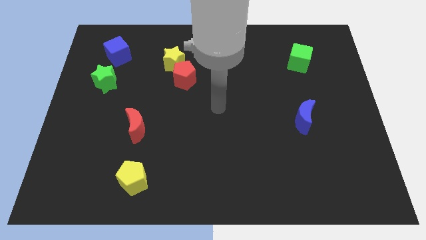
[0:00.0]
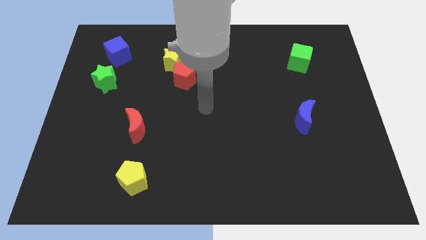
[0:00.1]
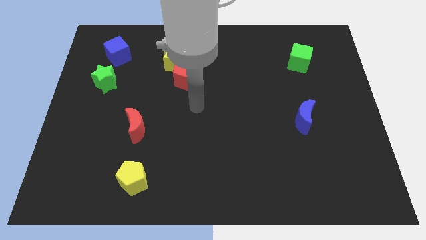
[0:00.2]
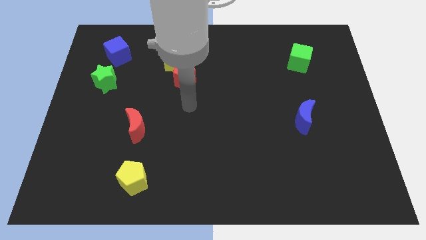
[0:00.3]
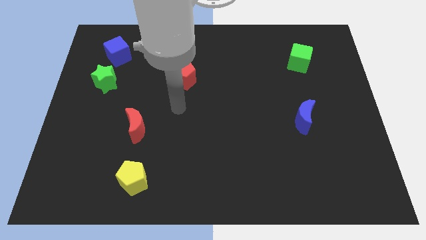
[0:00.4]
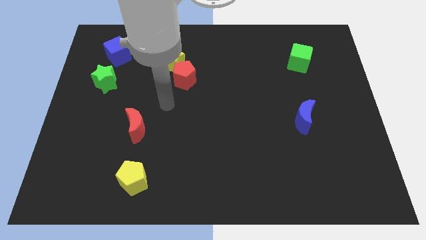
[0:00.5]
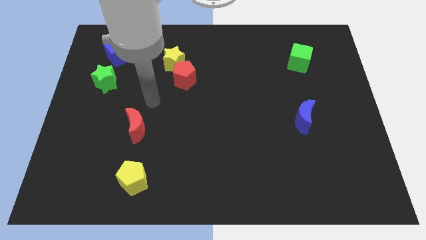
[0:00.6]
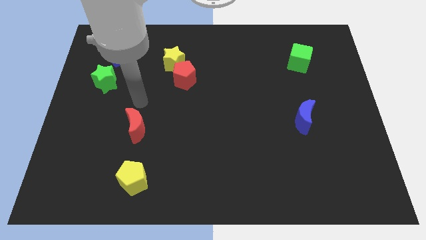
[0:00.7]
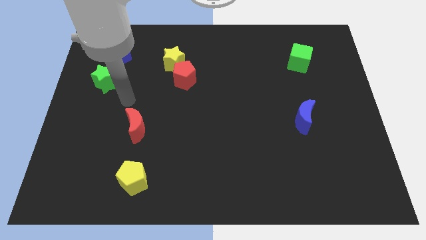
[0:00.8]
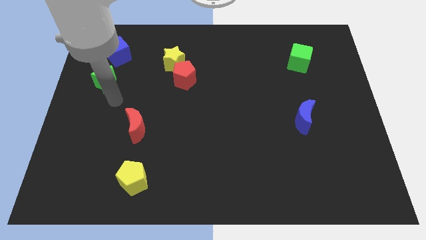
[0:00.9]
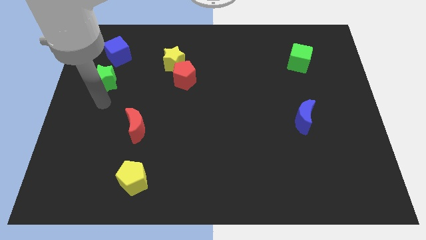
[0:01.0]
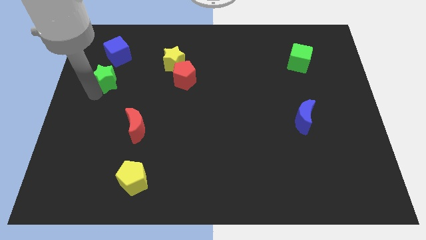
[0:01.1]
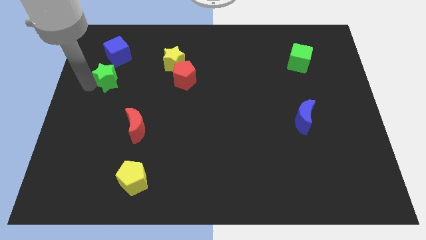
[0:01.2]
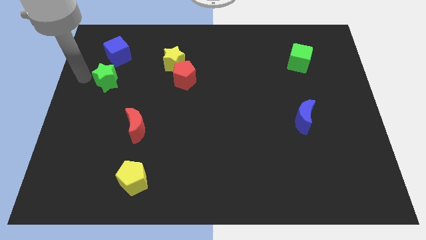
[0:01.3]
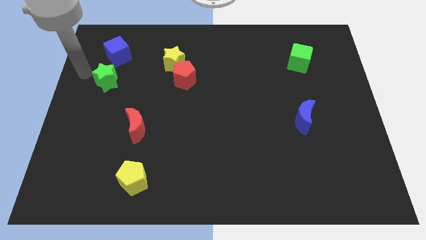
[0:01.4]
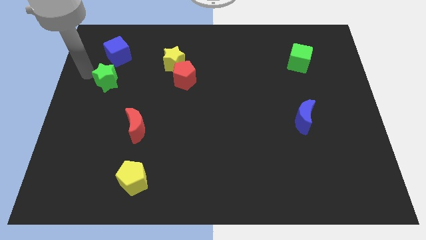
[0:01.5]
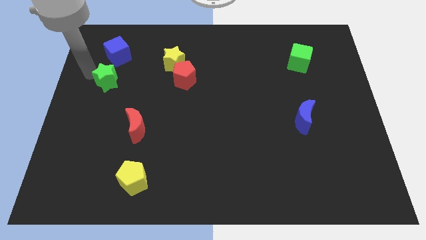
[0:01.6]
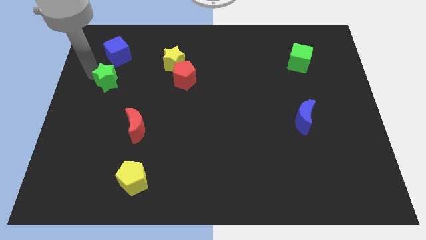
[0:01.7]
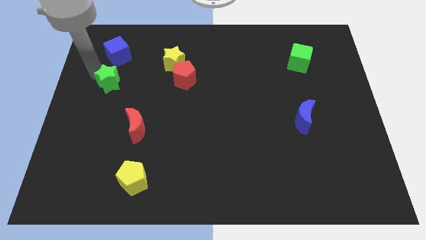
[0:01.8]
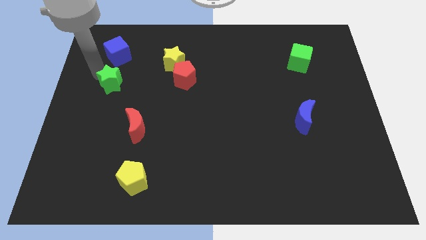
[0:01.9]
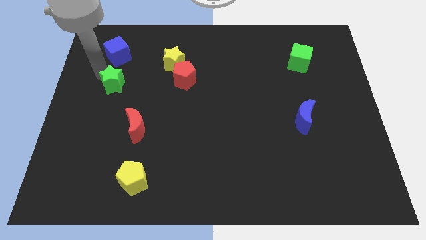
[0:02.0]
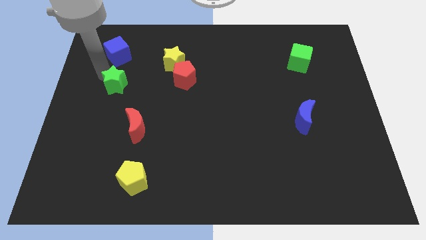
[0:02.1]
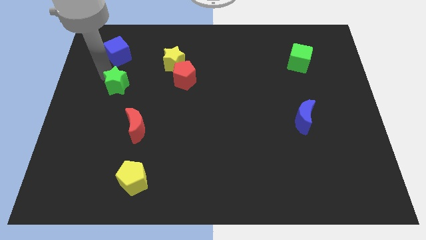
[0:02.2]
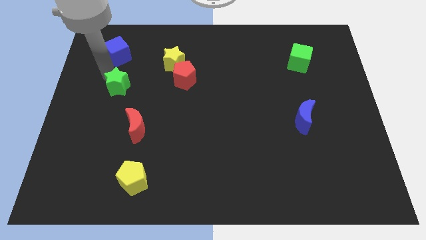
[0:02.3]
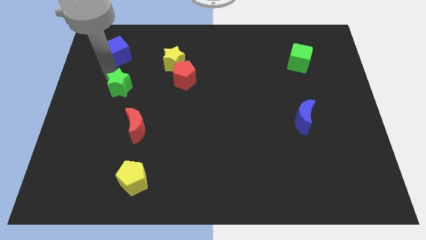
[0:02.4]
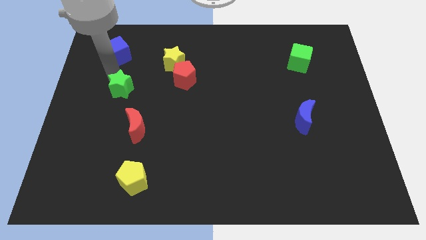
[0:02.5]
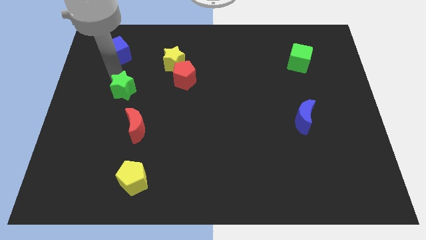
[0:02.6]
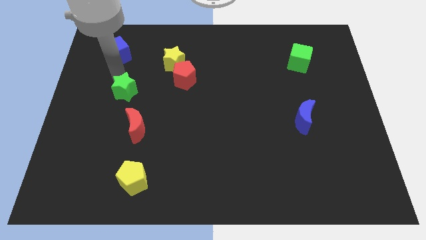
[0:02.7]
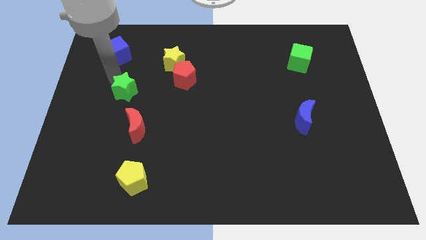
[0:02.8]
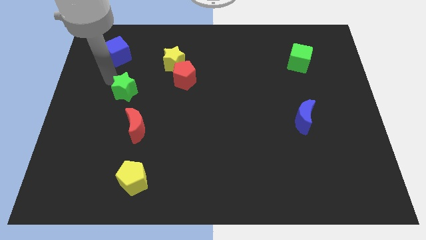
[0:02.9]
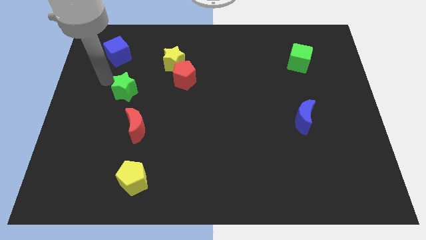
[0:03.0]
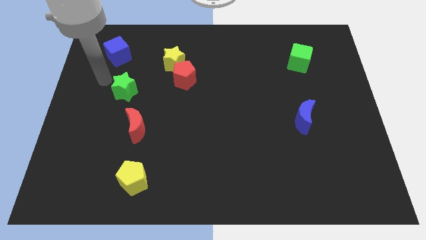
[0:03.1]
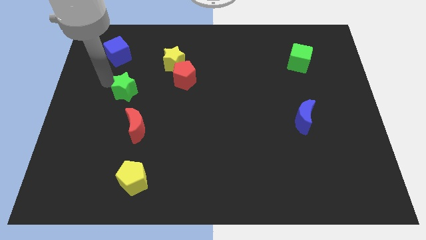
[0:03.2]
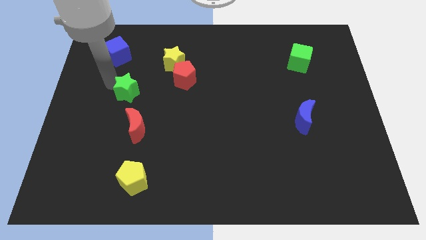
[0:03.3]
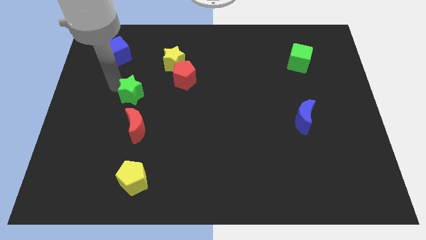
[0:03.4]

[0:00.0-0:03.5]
slide the green star somewhat down and right diagonally

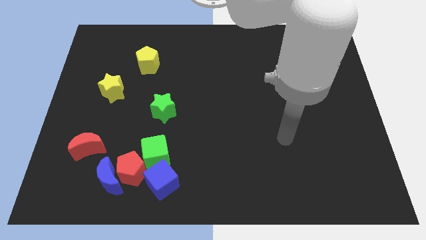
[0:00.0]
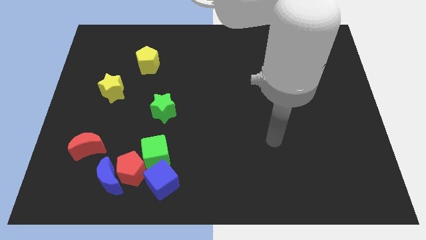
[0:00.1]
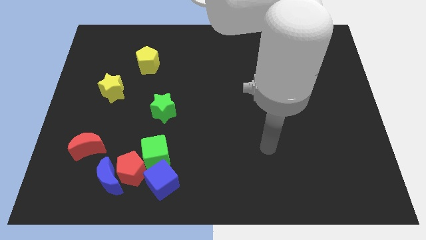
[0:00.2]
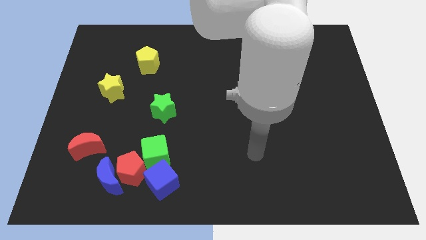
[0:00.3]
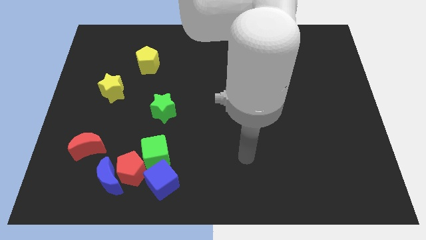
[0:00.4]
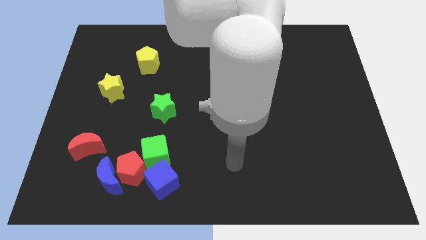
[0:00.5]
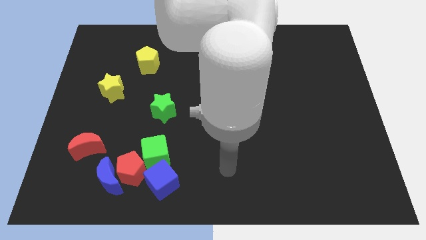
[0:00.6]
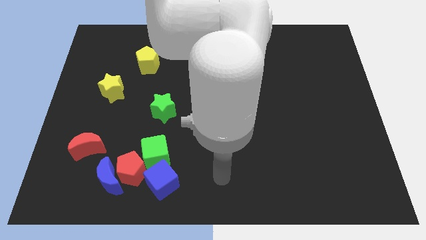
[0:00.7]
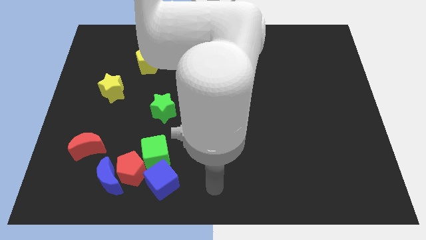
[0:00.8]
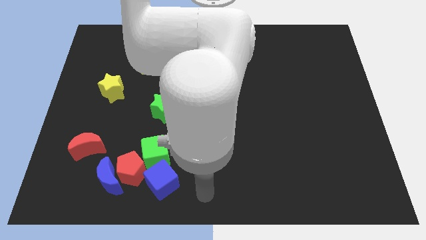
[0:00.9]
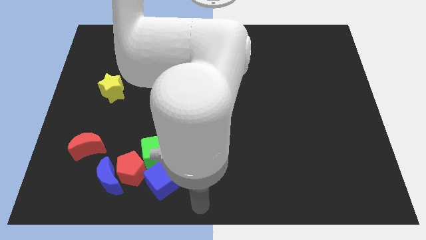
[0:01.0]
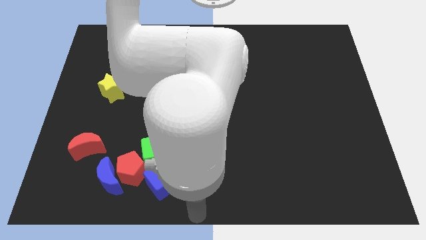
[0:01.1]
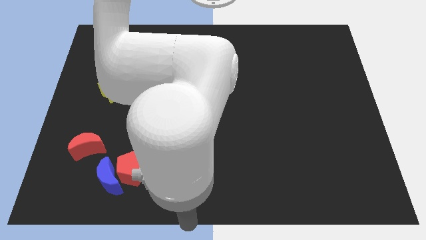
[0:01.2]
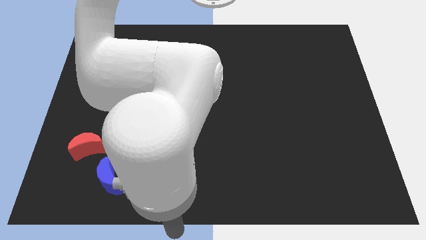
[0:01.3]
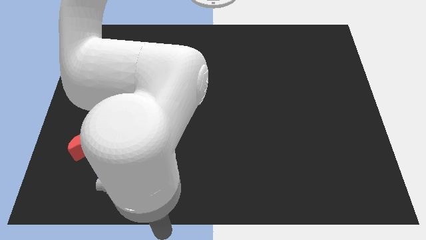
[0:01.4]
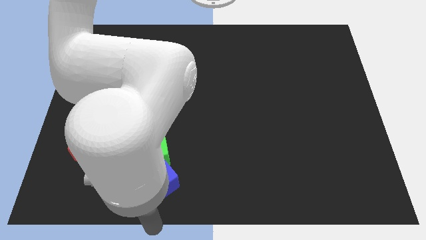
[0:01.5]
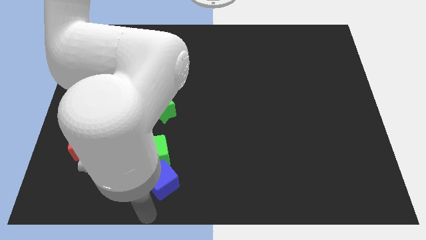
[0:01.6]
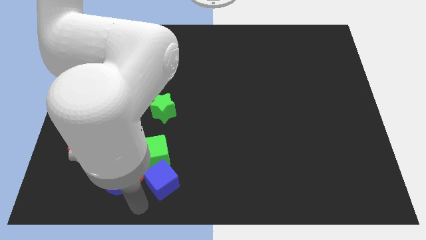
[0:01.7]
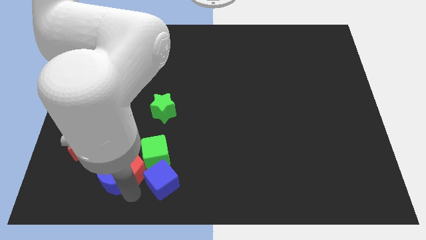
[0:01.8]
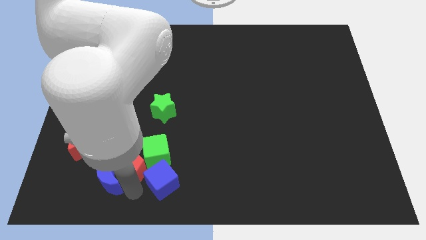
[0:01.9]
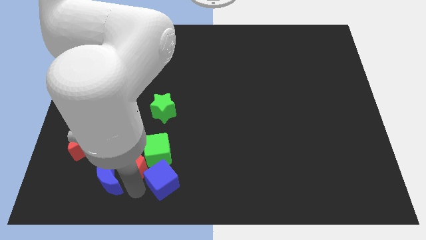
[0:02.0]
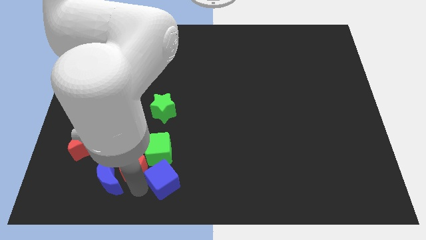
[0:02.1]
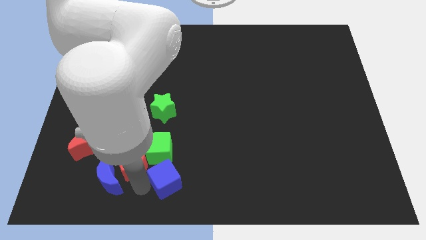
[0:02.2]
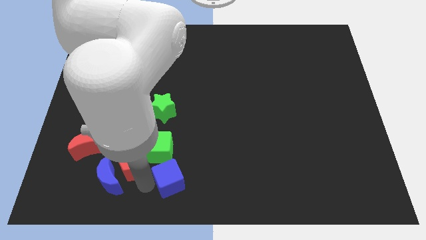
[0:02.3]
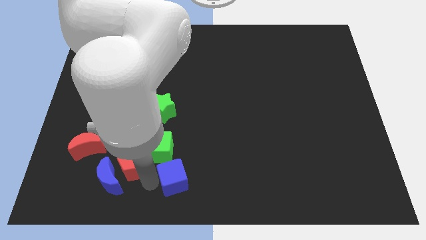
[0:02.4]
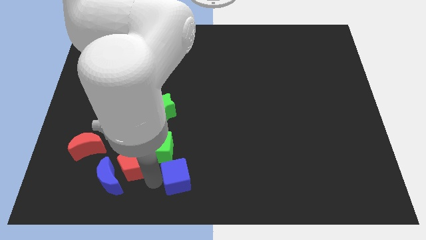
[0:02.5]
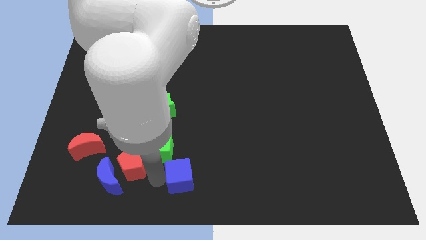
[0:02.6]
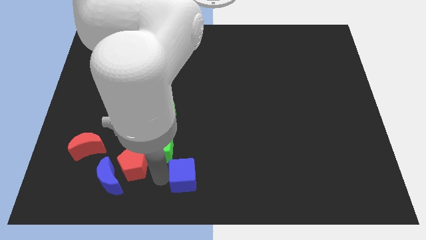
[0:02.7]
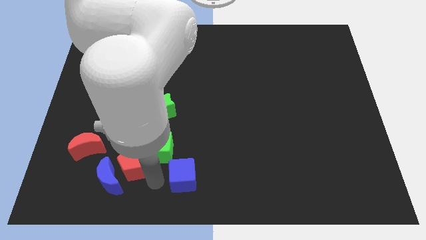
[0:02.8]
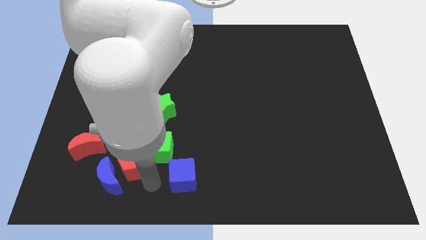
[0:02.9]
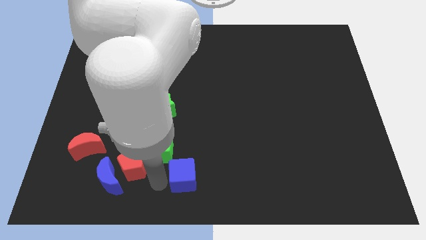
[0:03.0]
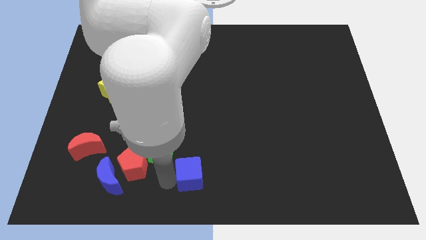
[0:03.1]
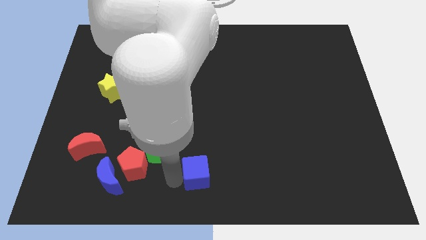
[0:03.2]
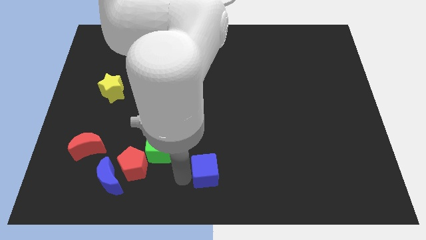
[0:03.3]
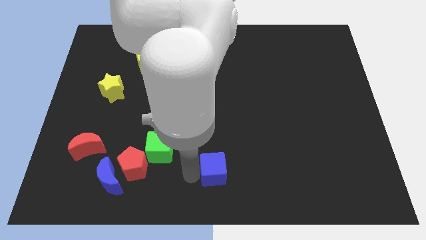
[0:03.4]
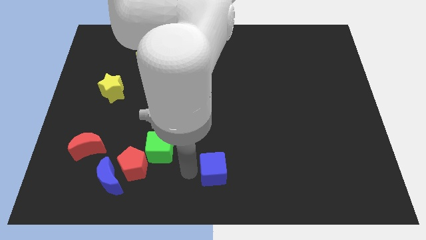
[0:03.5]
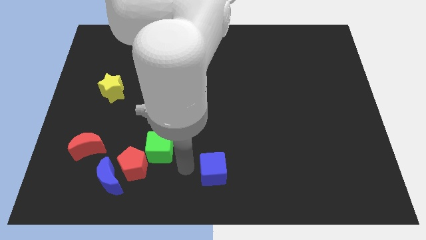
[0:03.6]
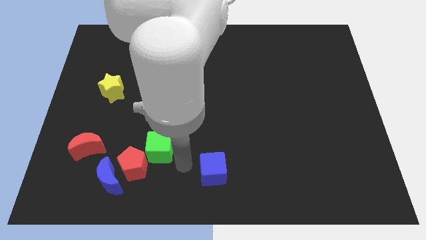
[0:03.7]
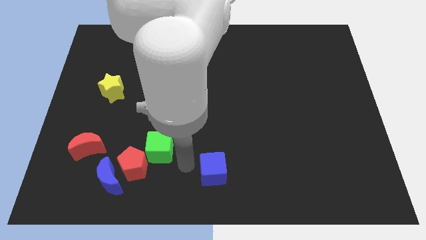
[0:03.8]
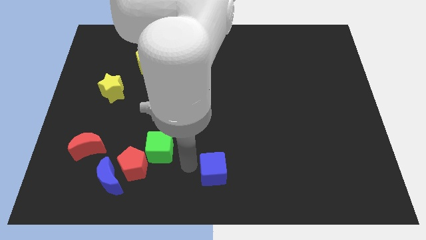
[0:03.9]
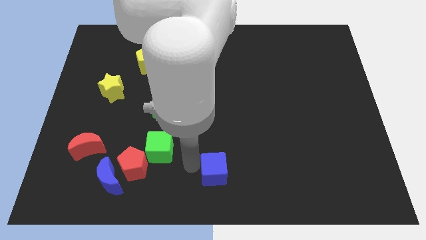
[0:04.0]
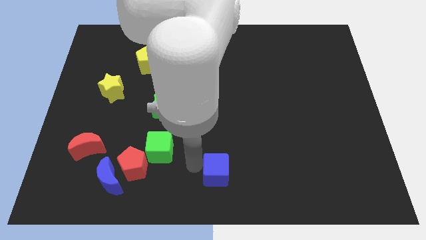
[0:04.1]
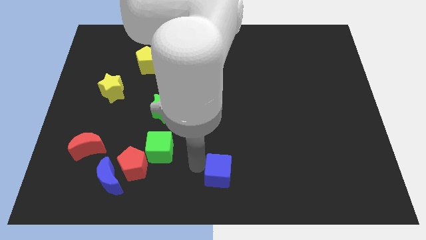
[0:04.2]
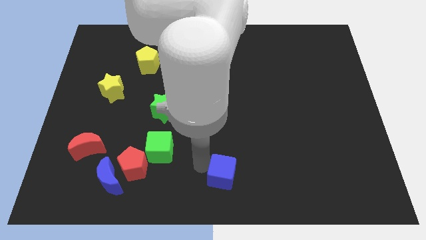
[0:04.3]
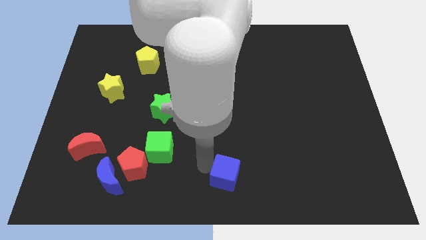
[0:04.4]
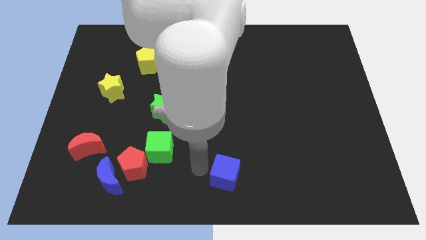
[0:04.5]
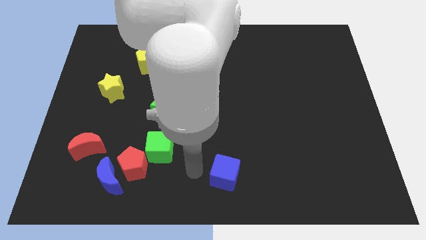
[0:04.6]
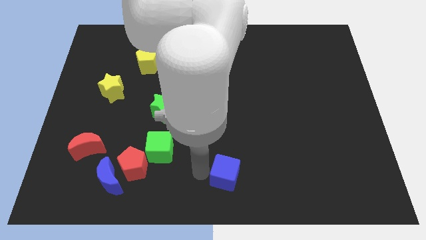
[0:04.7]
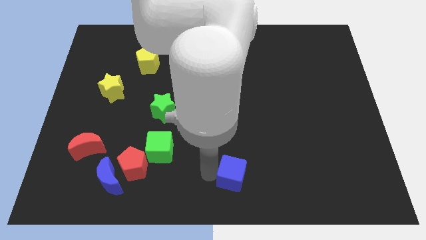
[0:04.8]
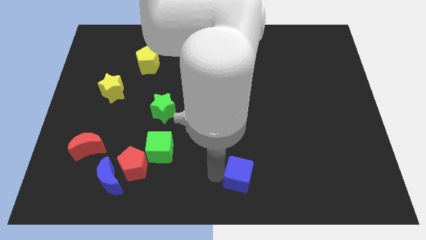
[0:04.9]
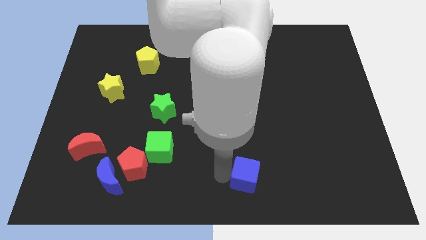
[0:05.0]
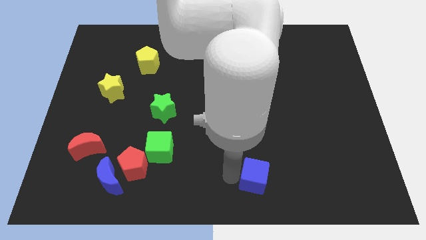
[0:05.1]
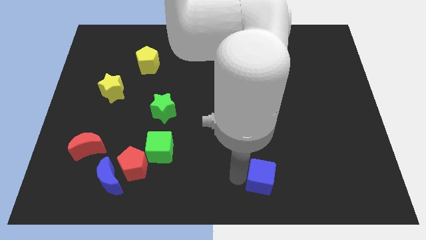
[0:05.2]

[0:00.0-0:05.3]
move the blue cube to the right
